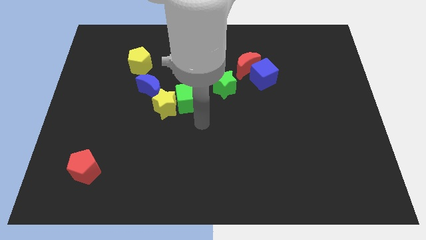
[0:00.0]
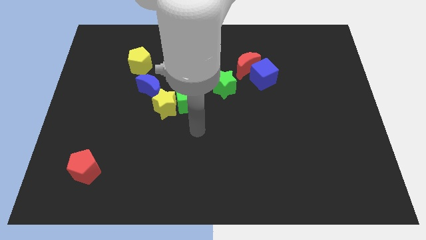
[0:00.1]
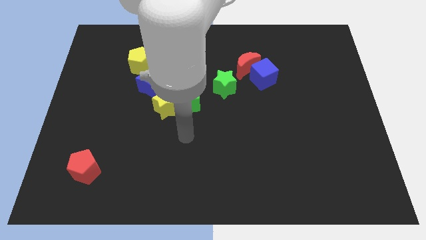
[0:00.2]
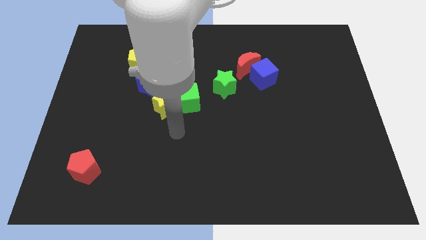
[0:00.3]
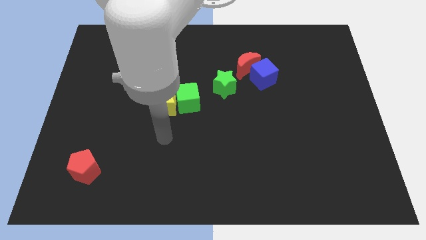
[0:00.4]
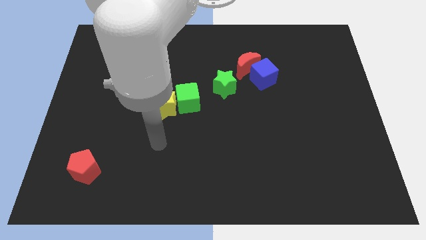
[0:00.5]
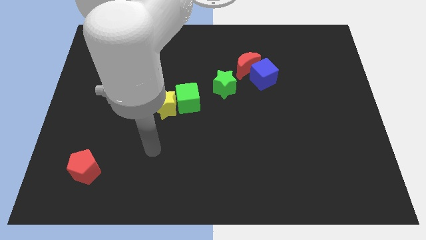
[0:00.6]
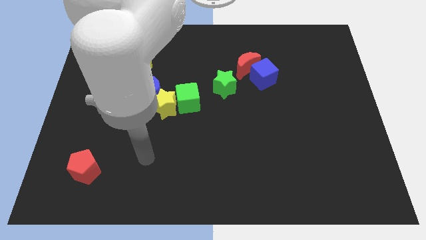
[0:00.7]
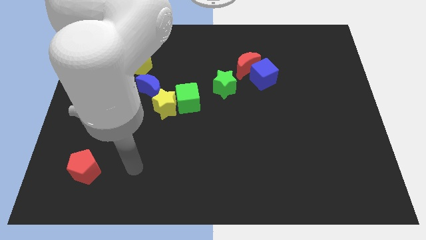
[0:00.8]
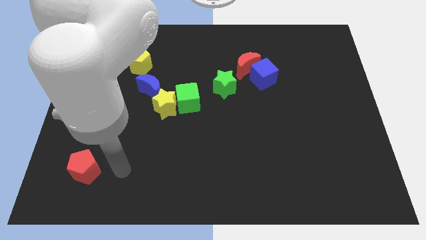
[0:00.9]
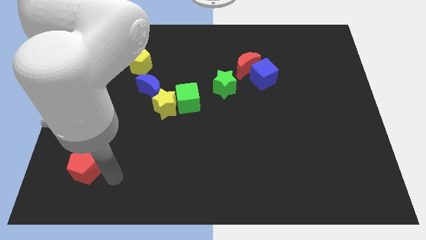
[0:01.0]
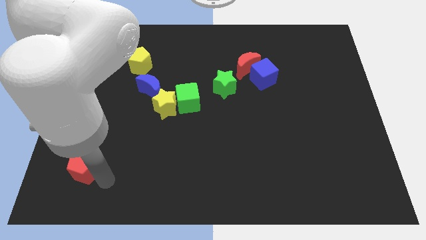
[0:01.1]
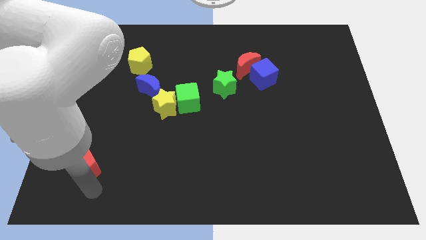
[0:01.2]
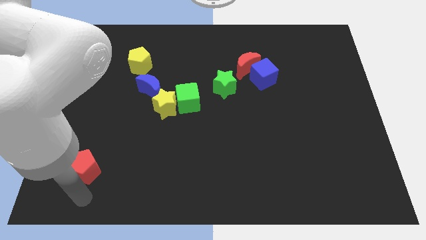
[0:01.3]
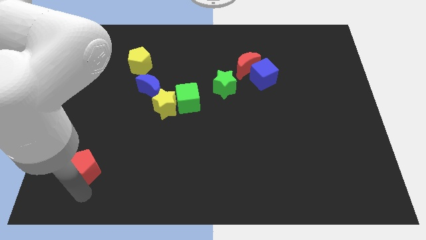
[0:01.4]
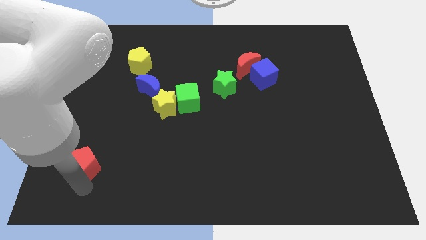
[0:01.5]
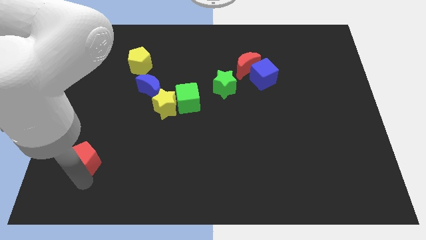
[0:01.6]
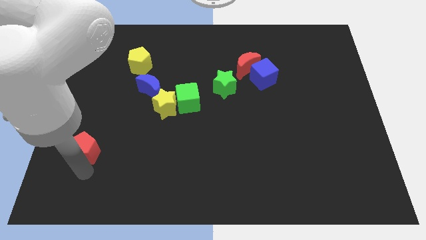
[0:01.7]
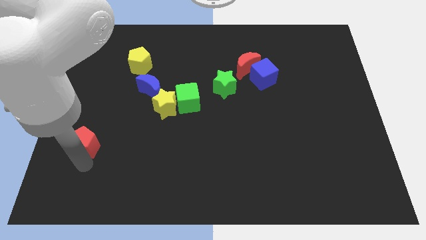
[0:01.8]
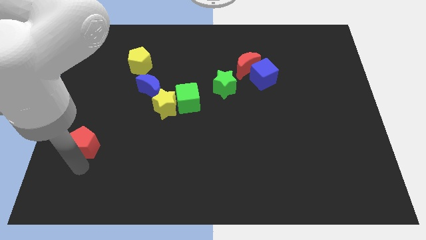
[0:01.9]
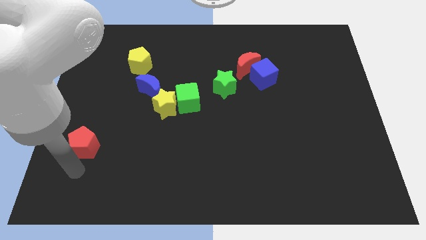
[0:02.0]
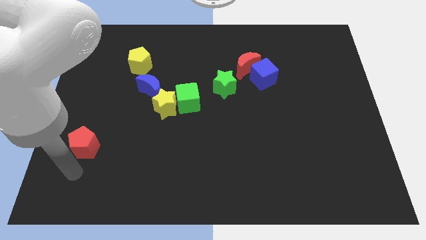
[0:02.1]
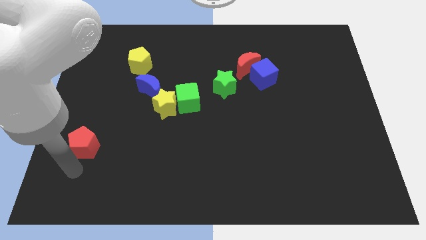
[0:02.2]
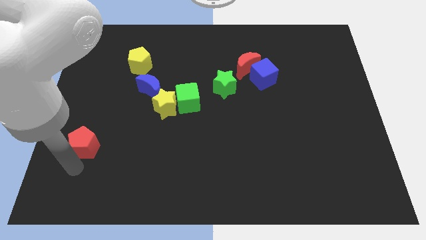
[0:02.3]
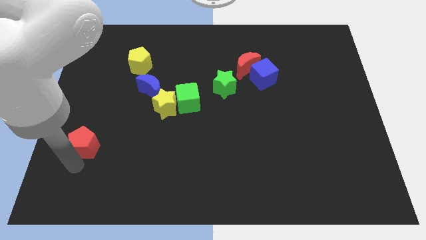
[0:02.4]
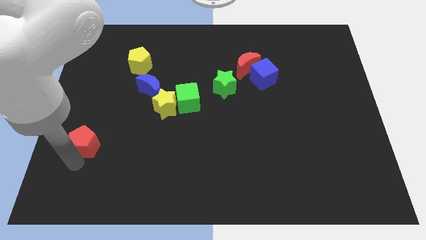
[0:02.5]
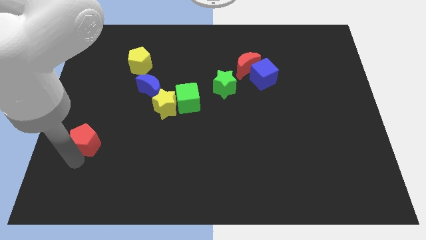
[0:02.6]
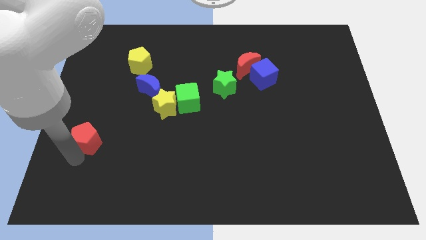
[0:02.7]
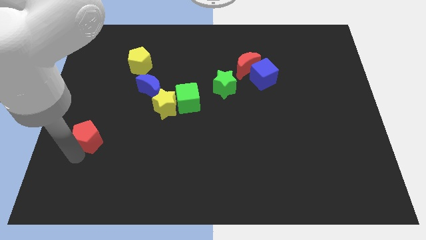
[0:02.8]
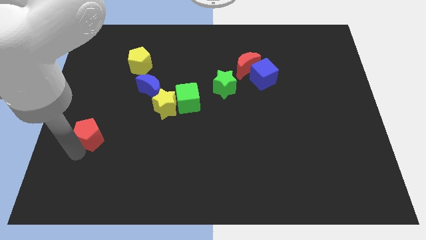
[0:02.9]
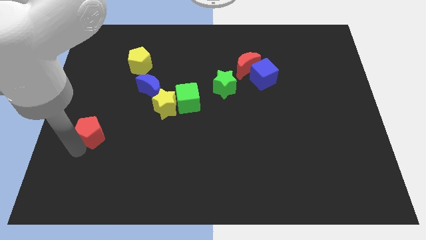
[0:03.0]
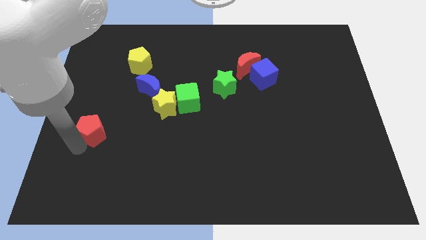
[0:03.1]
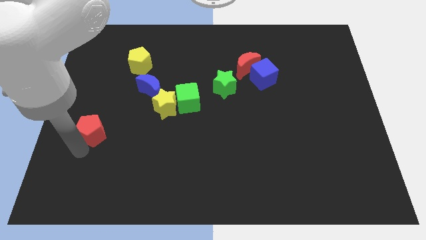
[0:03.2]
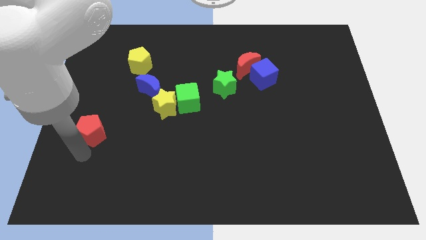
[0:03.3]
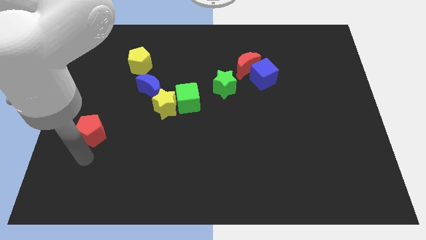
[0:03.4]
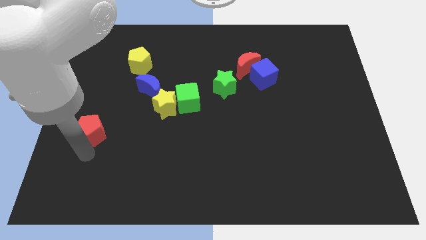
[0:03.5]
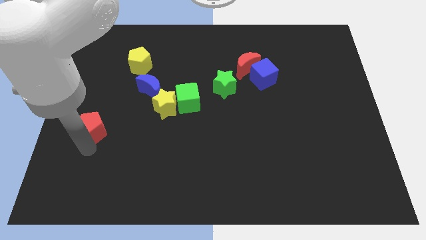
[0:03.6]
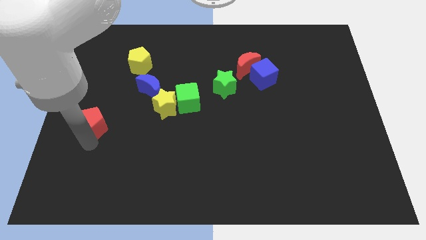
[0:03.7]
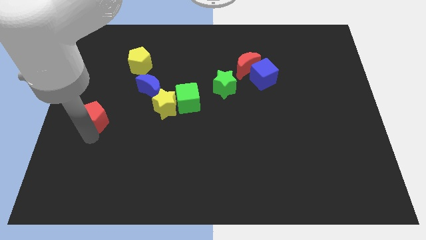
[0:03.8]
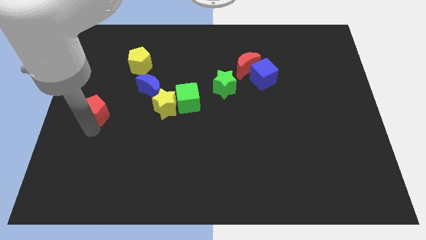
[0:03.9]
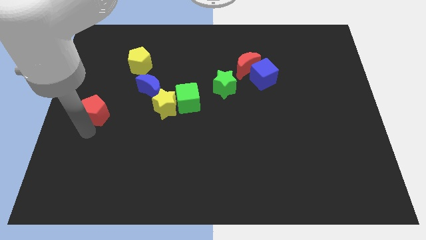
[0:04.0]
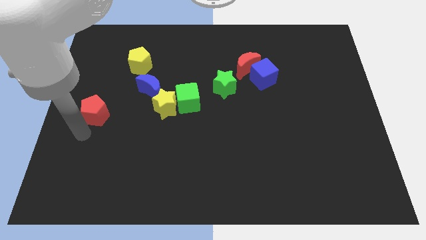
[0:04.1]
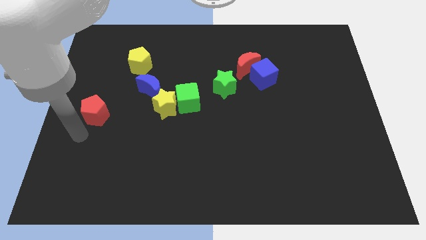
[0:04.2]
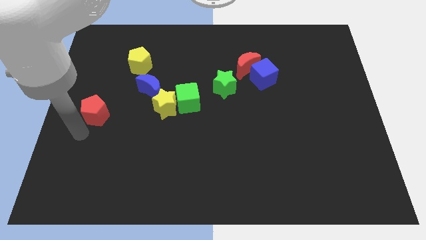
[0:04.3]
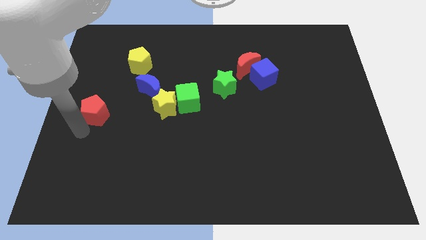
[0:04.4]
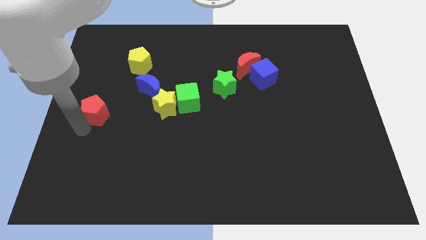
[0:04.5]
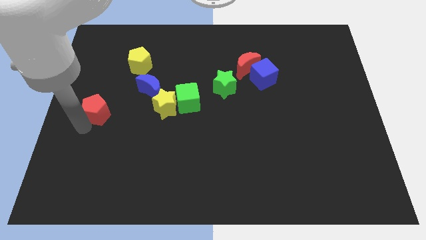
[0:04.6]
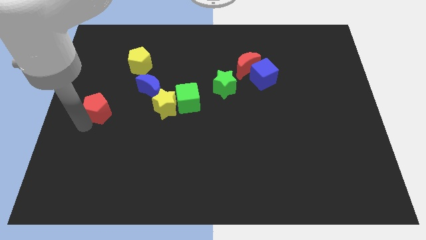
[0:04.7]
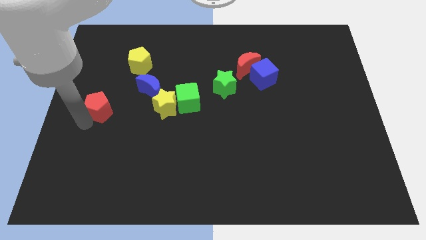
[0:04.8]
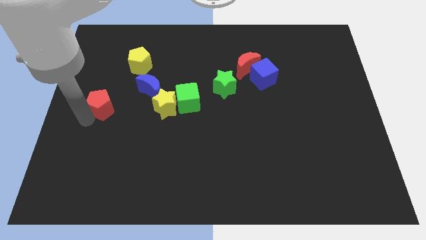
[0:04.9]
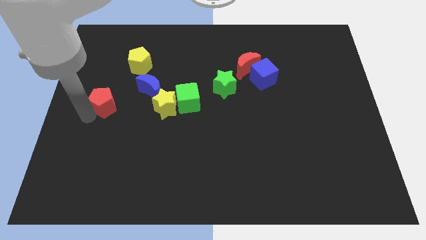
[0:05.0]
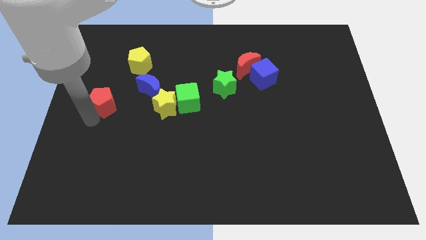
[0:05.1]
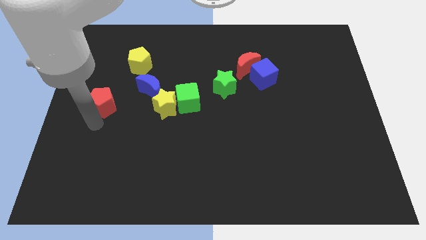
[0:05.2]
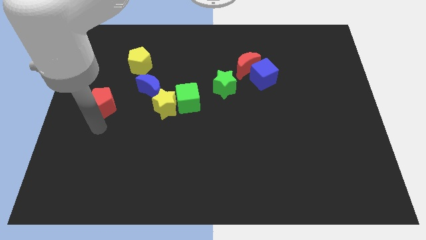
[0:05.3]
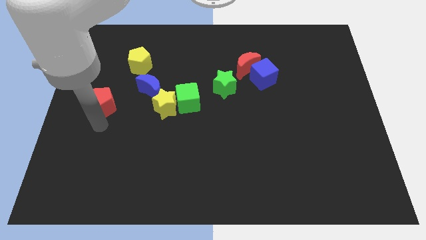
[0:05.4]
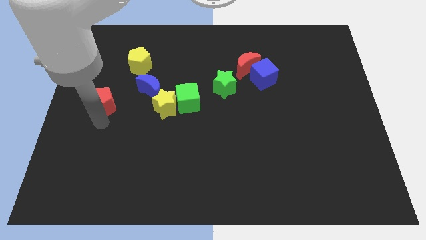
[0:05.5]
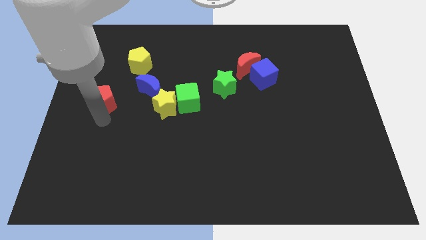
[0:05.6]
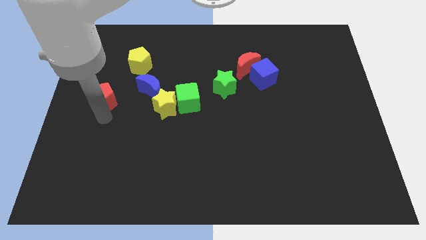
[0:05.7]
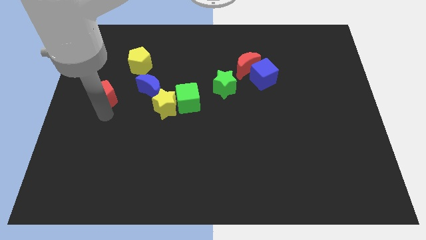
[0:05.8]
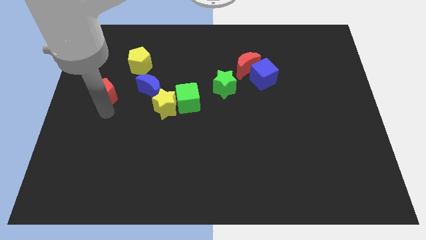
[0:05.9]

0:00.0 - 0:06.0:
move the red pentagon up

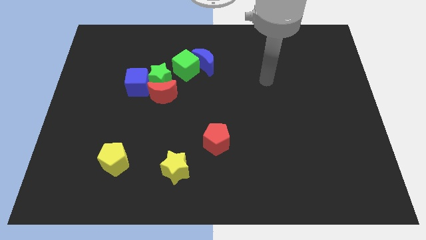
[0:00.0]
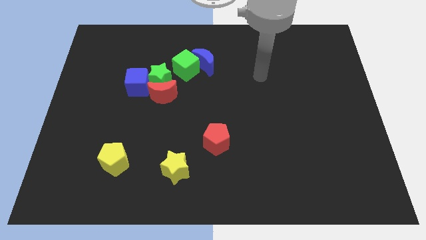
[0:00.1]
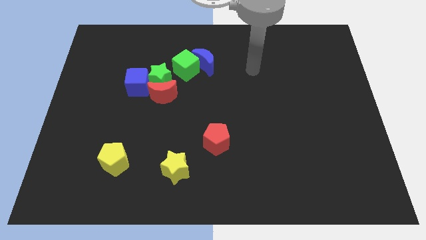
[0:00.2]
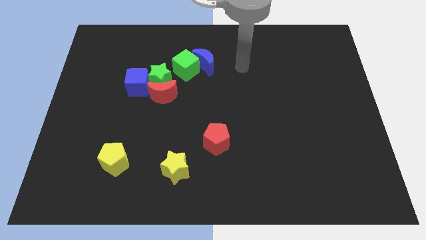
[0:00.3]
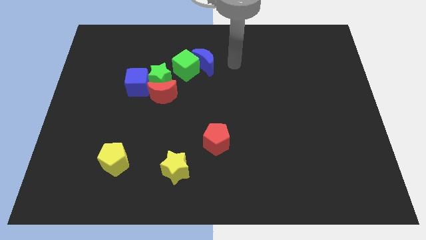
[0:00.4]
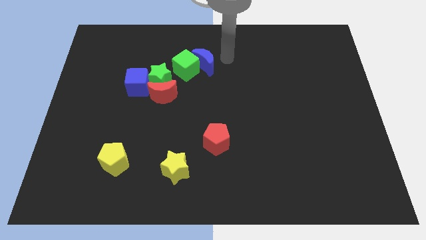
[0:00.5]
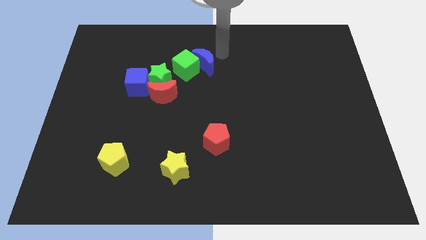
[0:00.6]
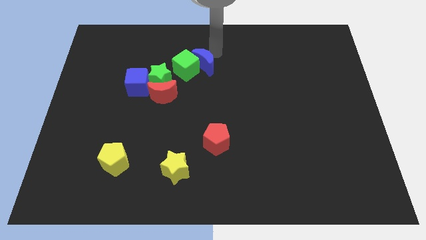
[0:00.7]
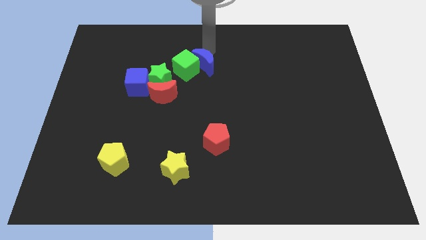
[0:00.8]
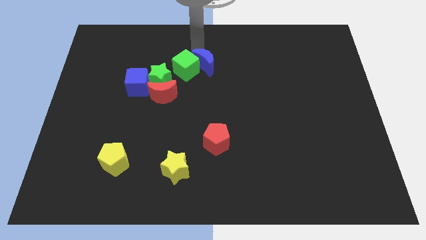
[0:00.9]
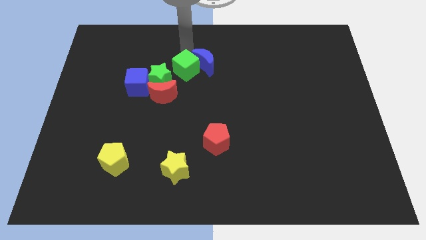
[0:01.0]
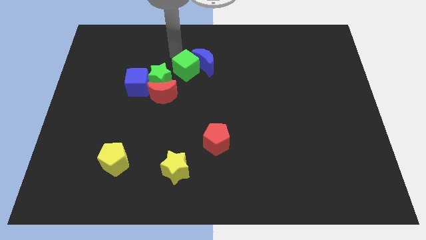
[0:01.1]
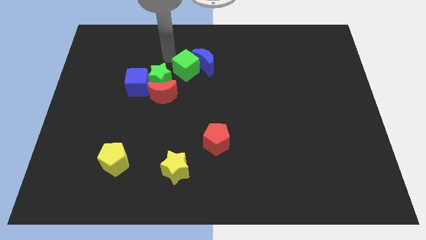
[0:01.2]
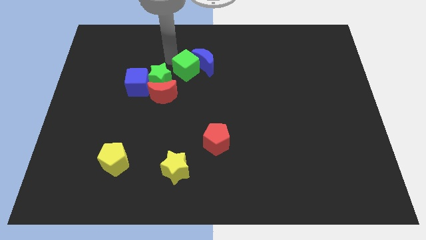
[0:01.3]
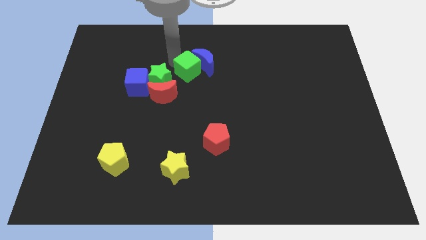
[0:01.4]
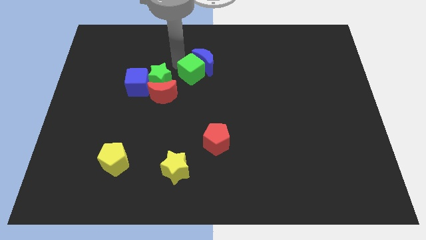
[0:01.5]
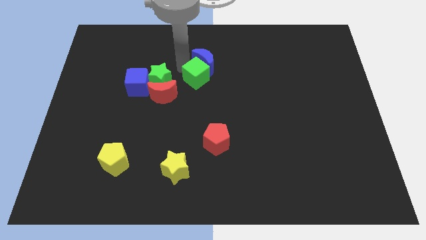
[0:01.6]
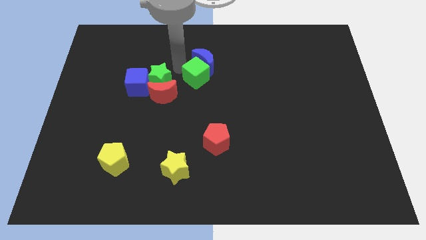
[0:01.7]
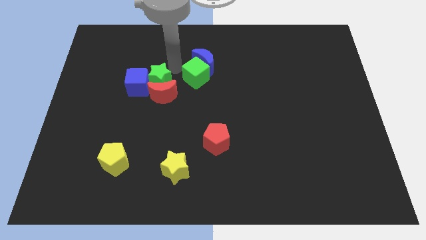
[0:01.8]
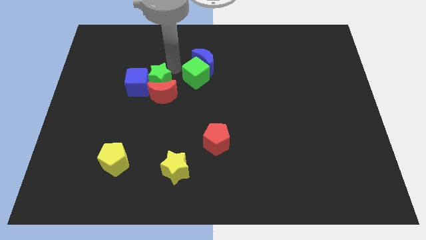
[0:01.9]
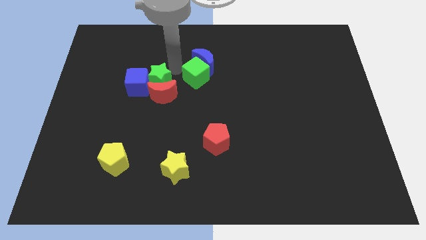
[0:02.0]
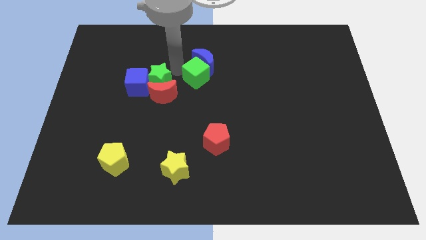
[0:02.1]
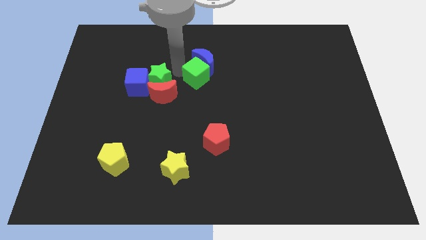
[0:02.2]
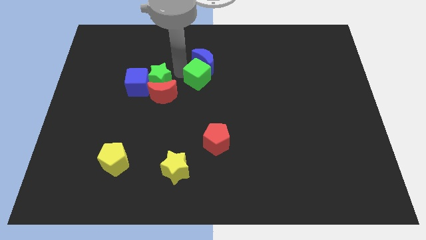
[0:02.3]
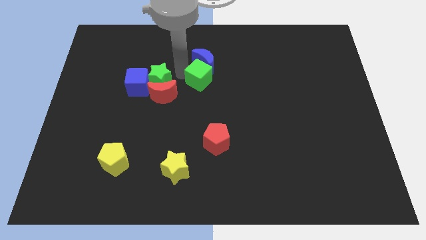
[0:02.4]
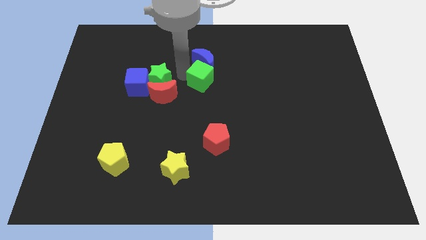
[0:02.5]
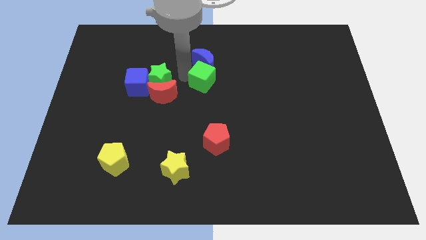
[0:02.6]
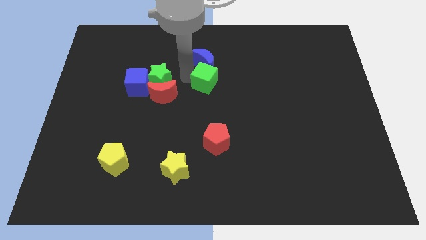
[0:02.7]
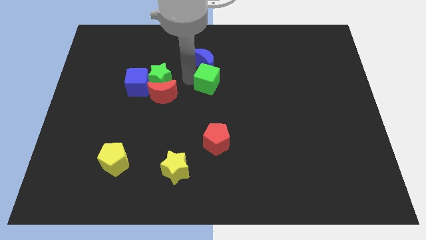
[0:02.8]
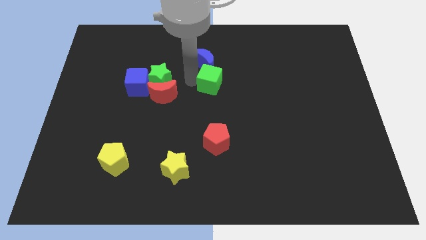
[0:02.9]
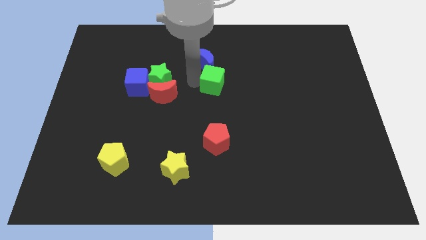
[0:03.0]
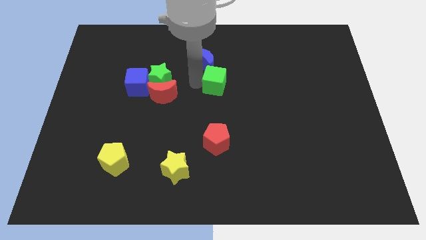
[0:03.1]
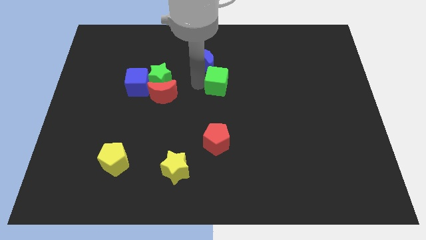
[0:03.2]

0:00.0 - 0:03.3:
push the green cube somewhat to the right
